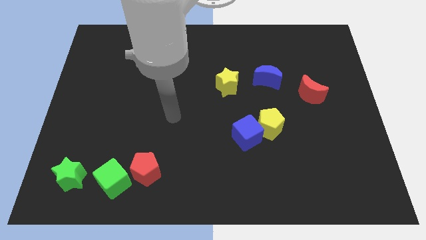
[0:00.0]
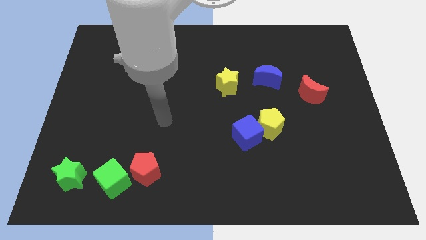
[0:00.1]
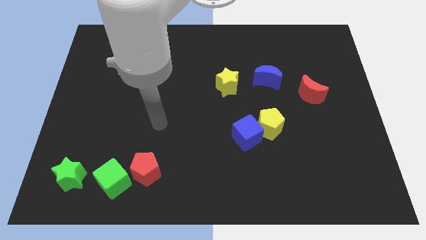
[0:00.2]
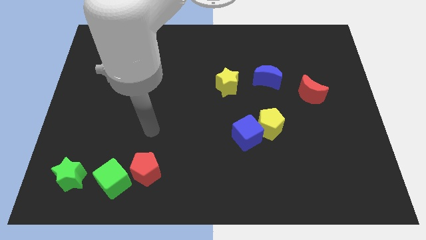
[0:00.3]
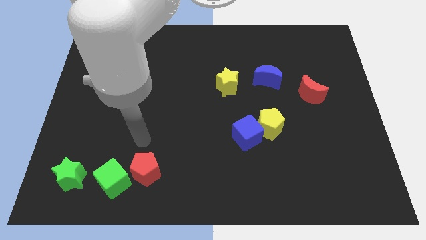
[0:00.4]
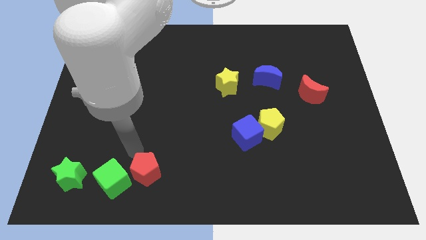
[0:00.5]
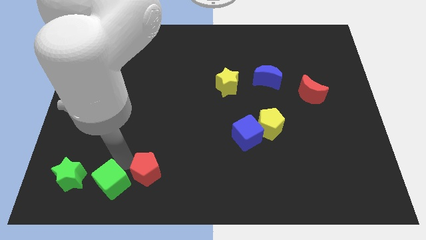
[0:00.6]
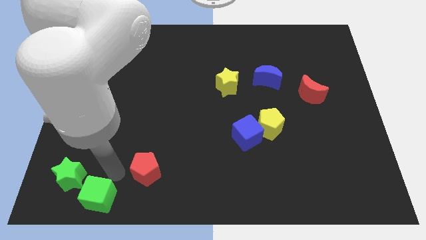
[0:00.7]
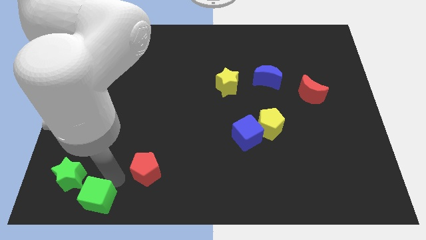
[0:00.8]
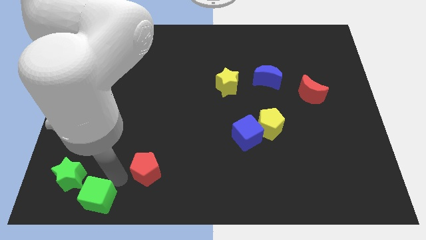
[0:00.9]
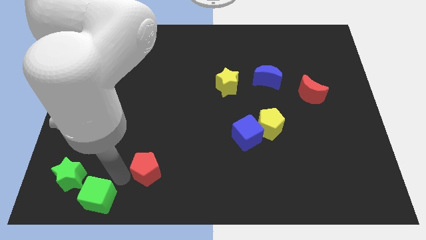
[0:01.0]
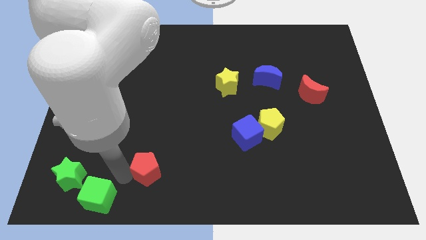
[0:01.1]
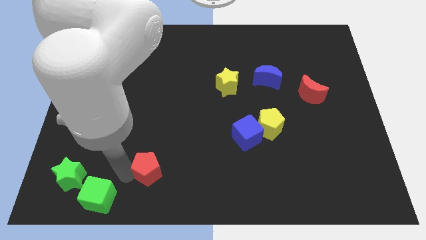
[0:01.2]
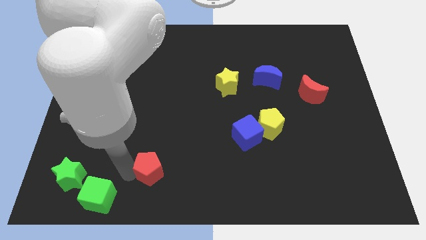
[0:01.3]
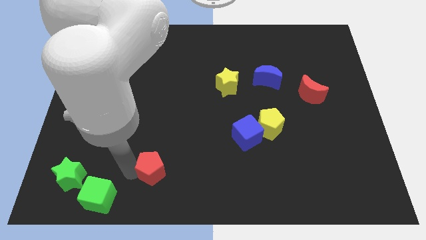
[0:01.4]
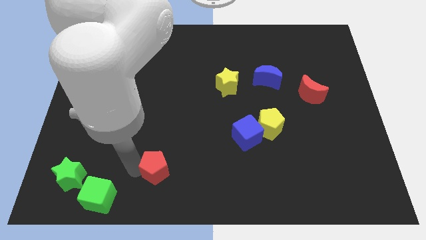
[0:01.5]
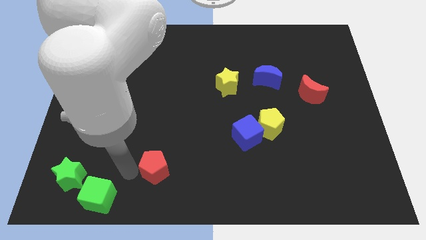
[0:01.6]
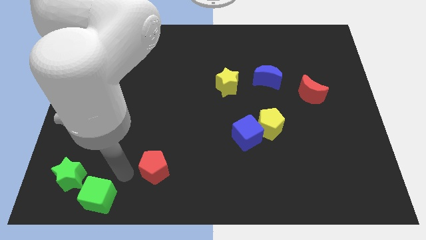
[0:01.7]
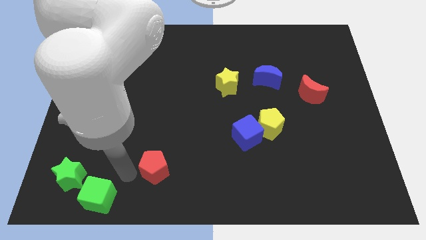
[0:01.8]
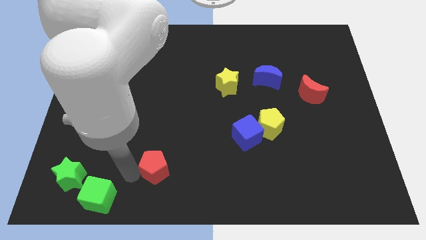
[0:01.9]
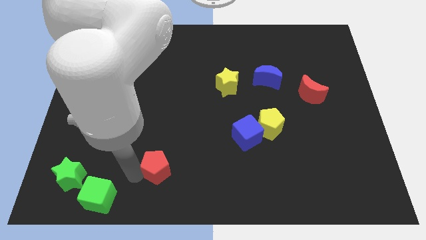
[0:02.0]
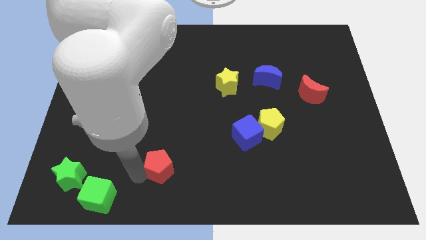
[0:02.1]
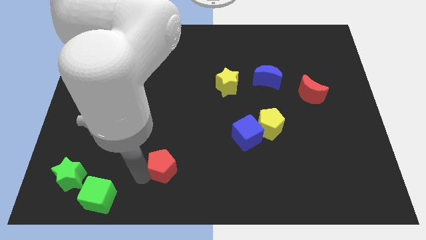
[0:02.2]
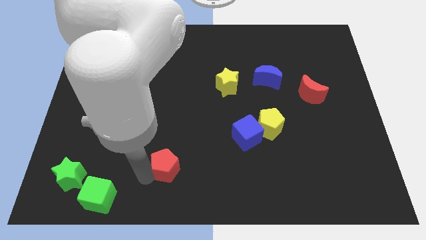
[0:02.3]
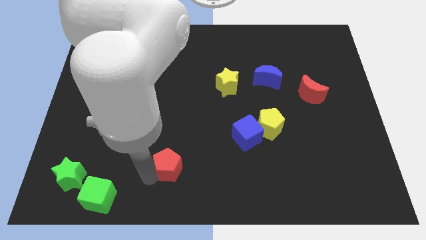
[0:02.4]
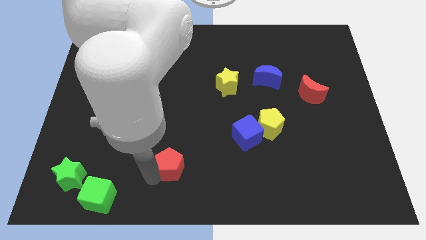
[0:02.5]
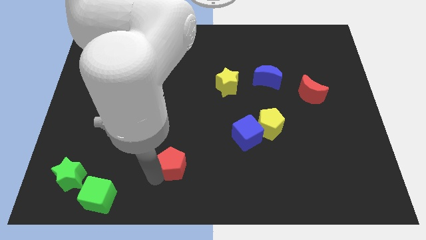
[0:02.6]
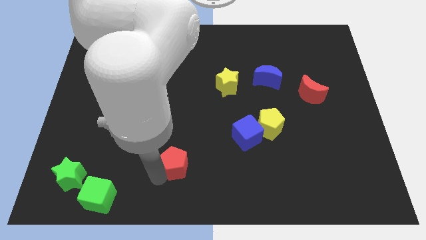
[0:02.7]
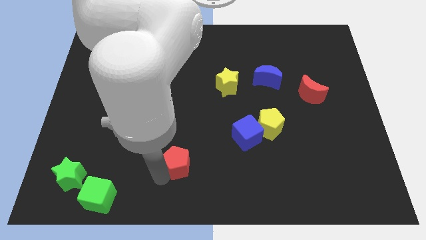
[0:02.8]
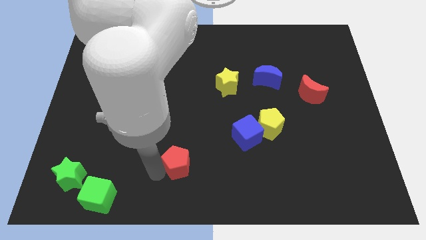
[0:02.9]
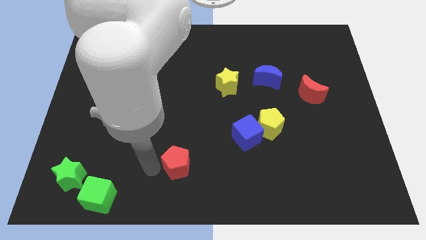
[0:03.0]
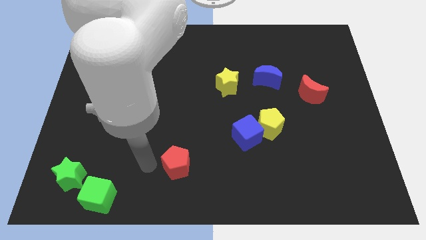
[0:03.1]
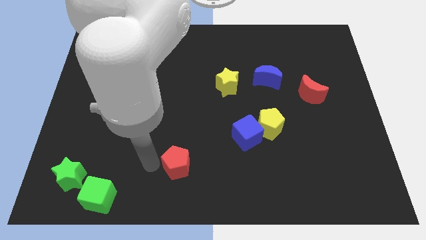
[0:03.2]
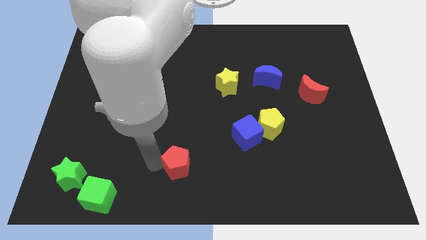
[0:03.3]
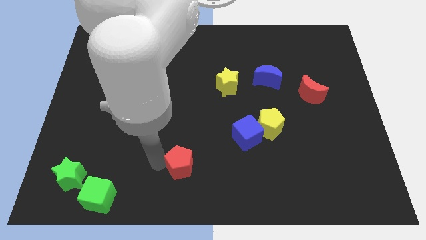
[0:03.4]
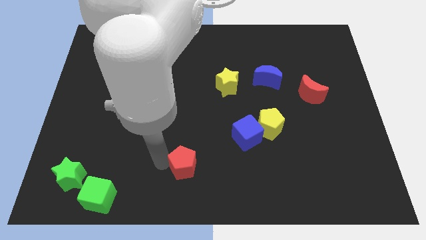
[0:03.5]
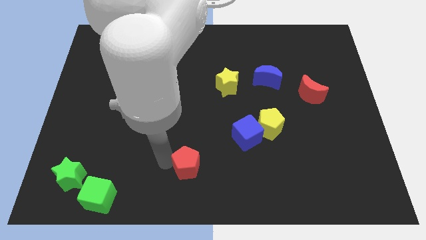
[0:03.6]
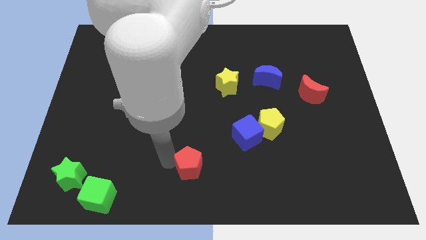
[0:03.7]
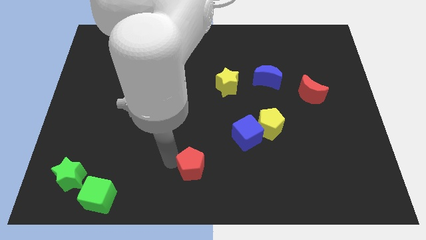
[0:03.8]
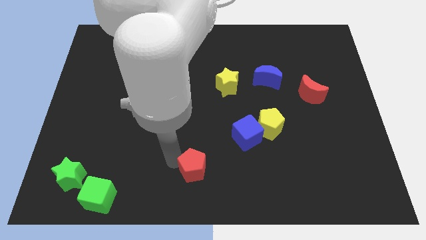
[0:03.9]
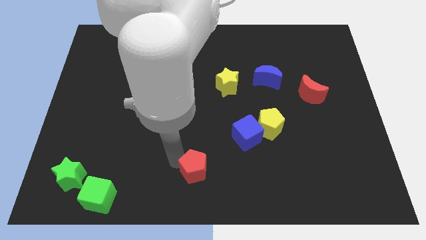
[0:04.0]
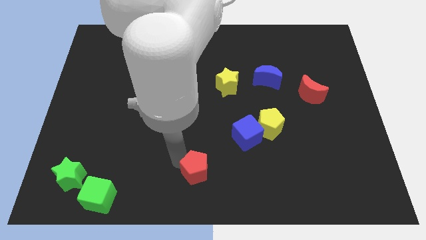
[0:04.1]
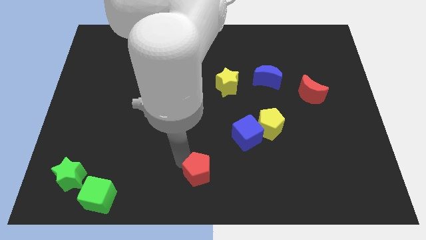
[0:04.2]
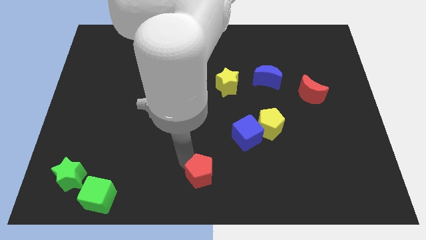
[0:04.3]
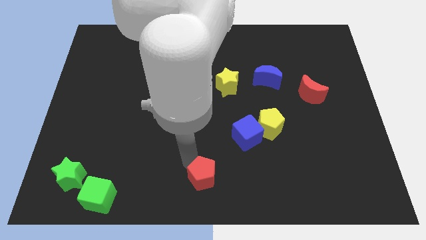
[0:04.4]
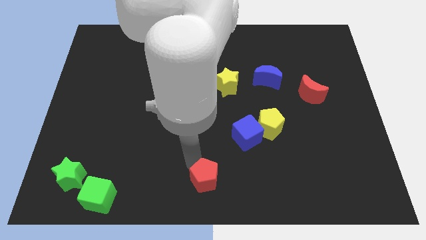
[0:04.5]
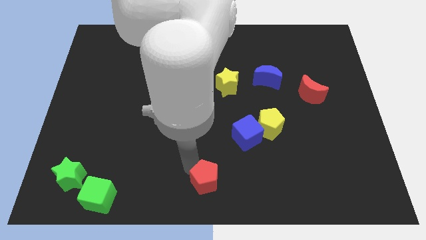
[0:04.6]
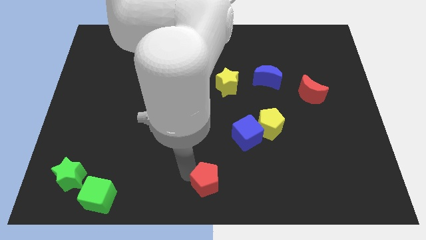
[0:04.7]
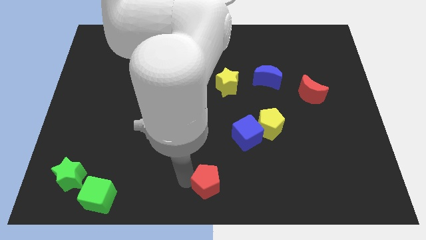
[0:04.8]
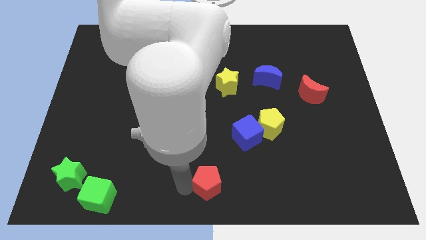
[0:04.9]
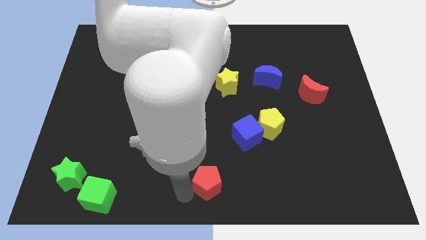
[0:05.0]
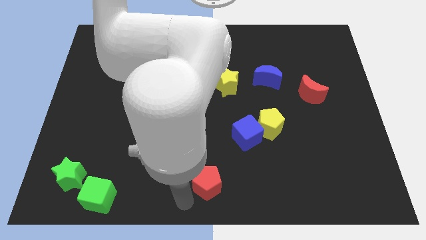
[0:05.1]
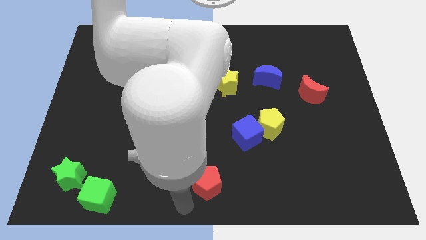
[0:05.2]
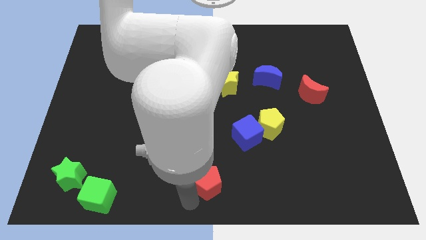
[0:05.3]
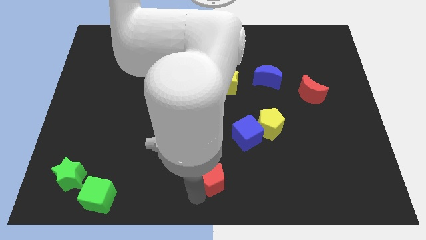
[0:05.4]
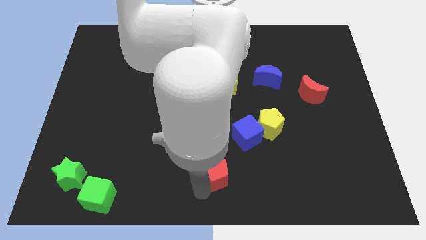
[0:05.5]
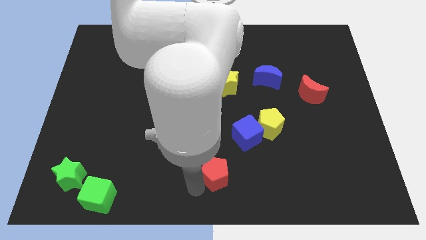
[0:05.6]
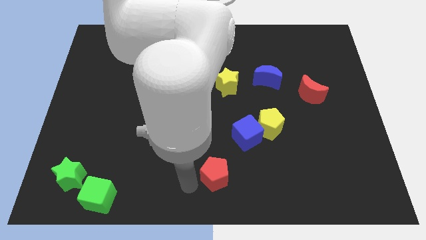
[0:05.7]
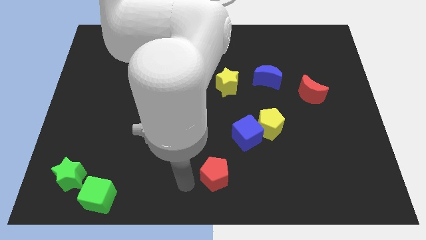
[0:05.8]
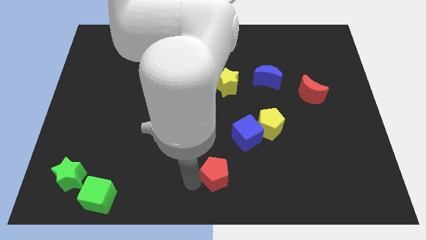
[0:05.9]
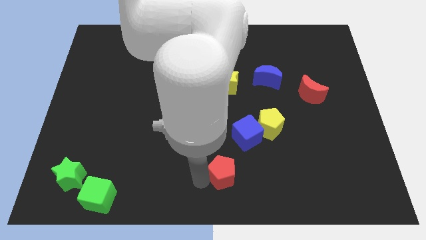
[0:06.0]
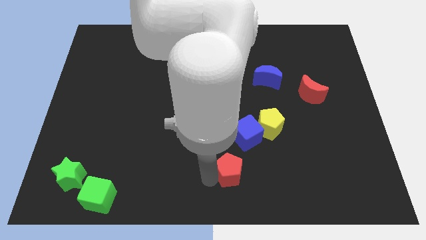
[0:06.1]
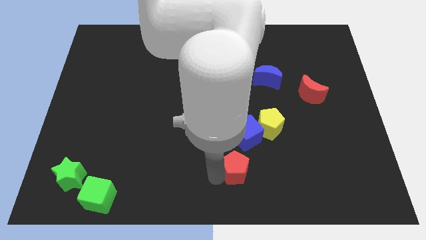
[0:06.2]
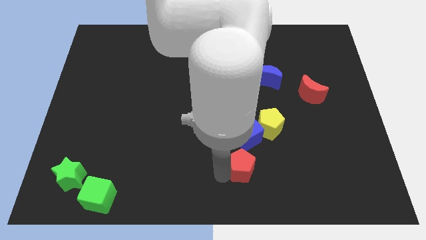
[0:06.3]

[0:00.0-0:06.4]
move the red pentagon right

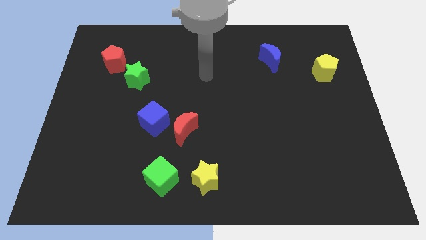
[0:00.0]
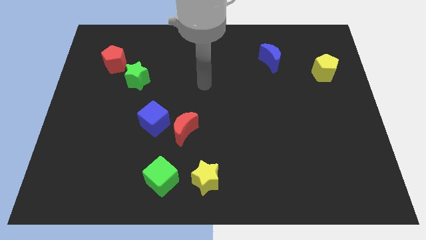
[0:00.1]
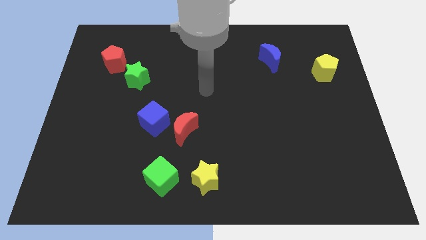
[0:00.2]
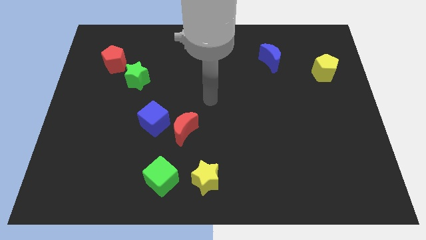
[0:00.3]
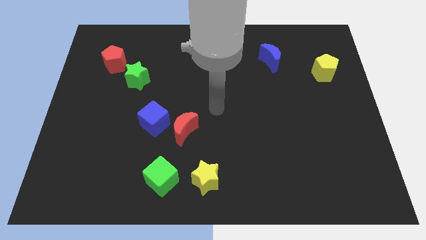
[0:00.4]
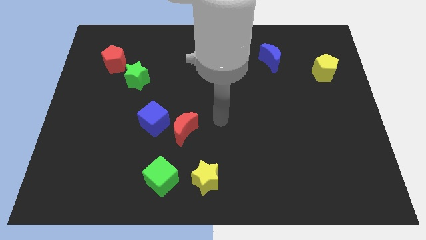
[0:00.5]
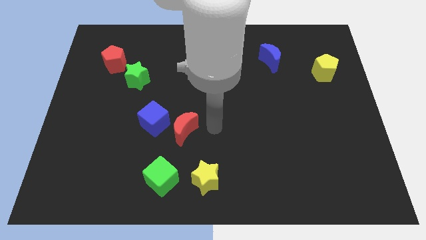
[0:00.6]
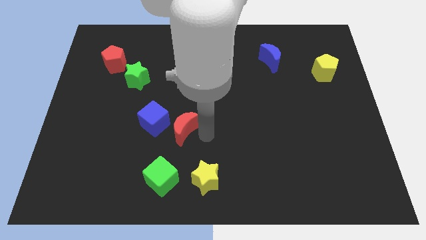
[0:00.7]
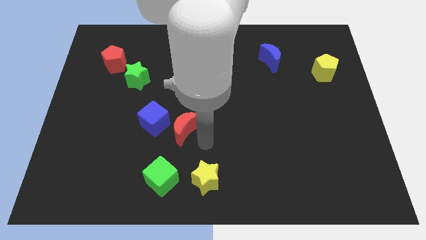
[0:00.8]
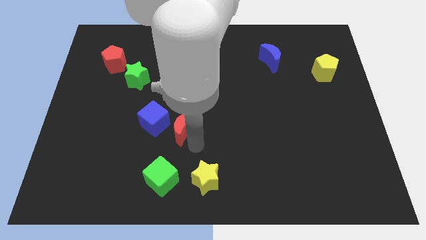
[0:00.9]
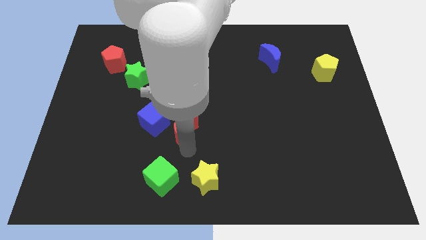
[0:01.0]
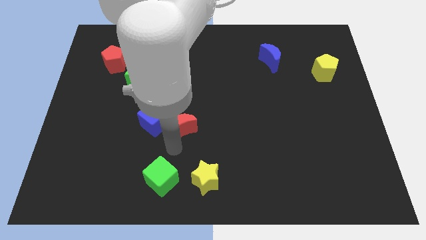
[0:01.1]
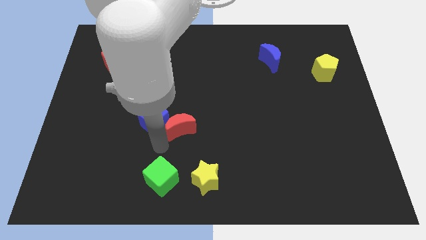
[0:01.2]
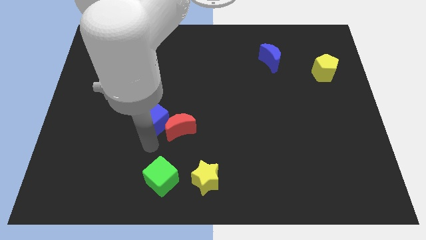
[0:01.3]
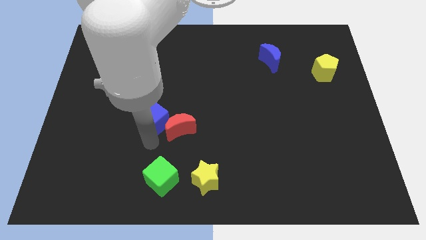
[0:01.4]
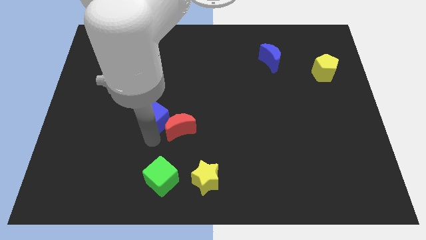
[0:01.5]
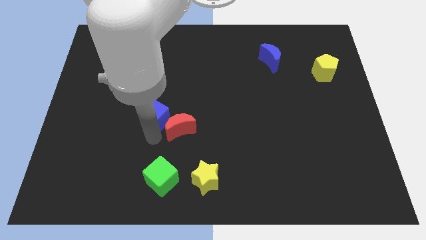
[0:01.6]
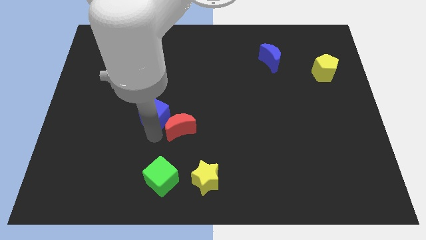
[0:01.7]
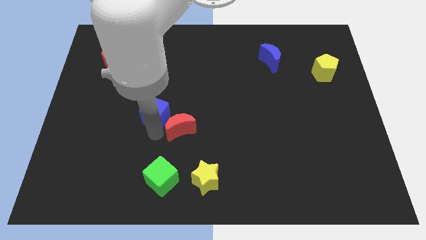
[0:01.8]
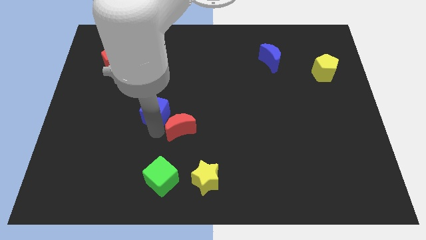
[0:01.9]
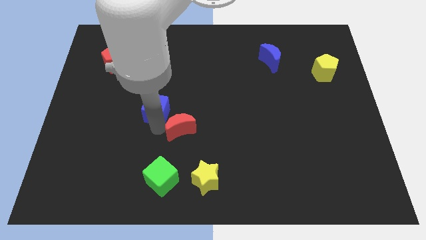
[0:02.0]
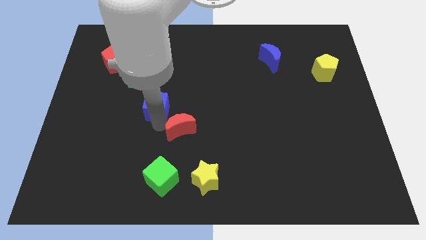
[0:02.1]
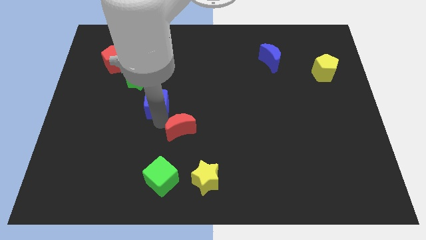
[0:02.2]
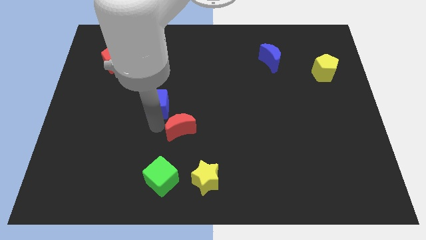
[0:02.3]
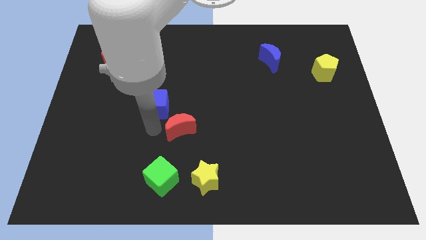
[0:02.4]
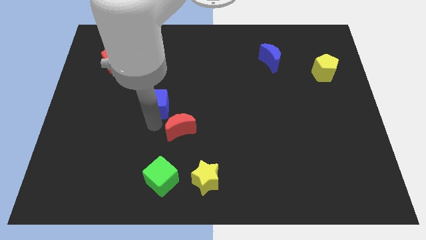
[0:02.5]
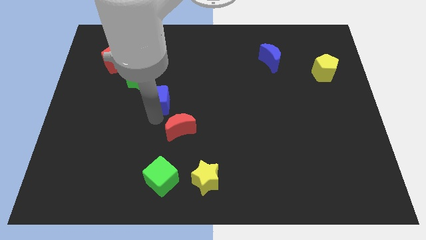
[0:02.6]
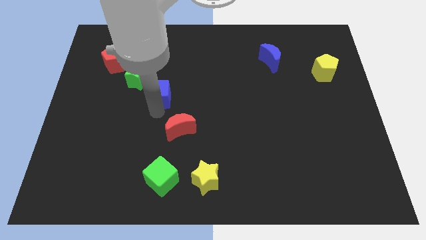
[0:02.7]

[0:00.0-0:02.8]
slightly push the blue cube upwards
